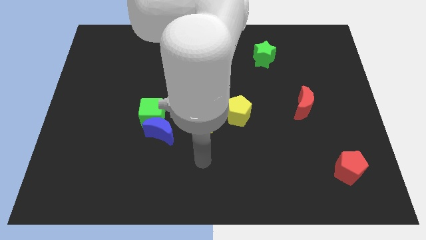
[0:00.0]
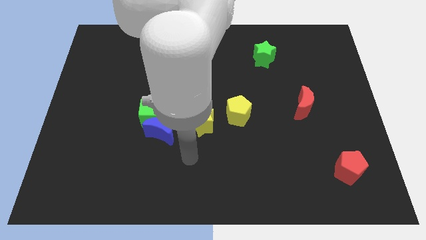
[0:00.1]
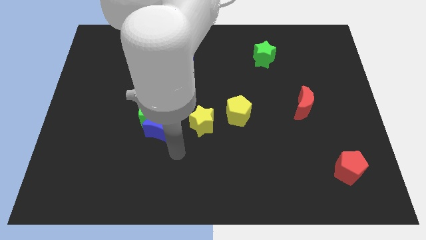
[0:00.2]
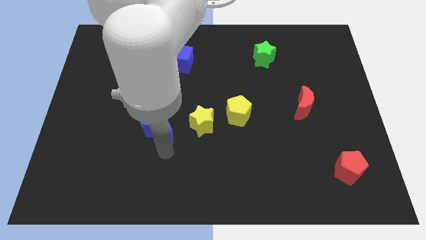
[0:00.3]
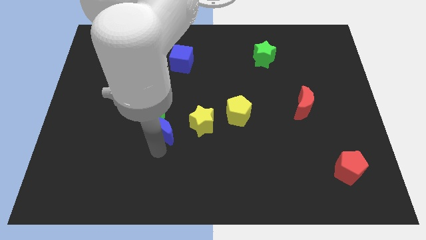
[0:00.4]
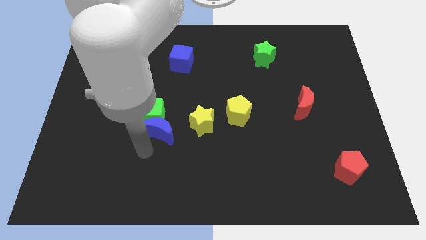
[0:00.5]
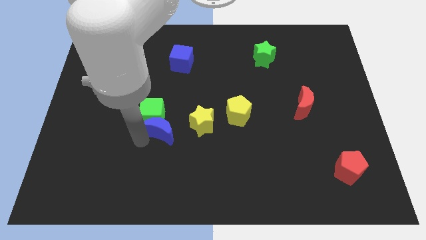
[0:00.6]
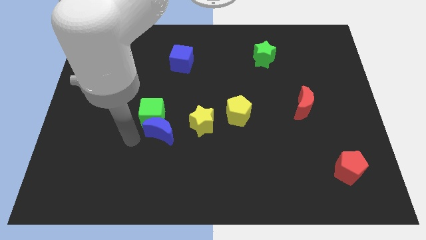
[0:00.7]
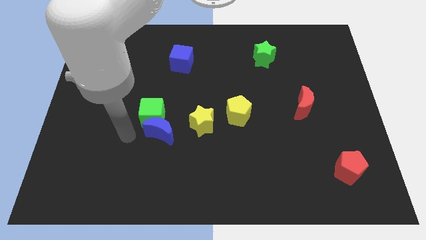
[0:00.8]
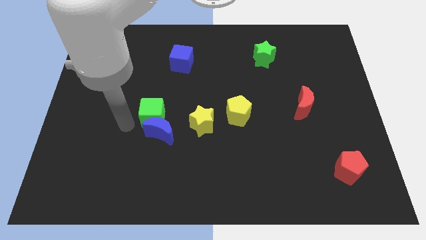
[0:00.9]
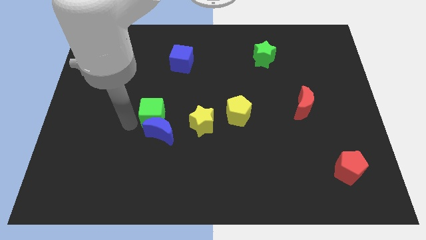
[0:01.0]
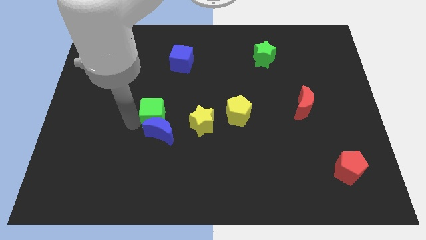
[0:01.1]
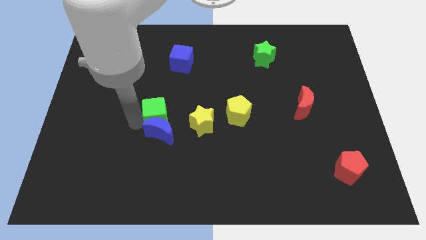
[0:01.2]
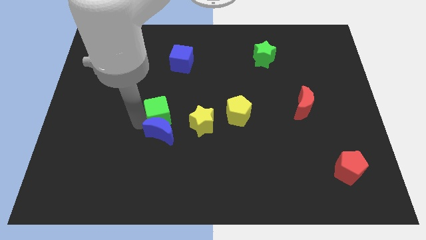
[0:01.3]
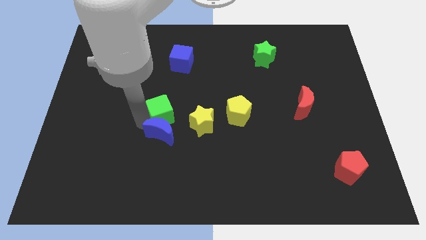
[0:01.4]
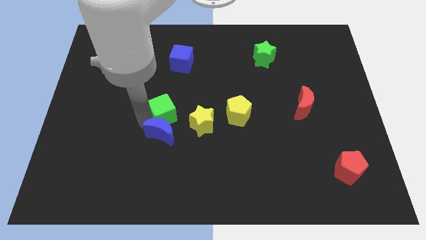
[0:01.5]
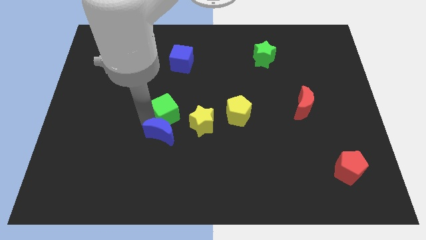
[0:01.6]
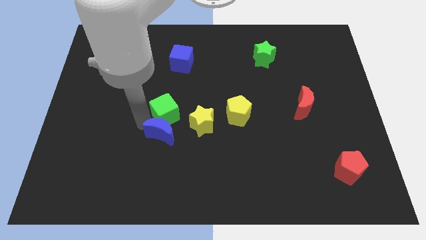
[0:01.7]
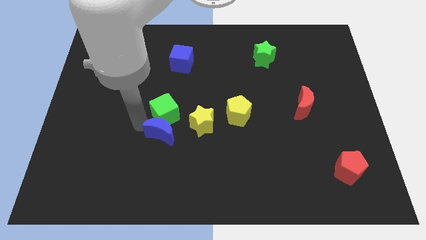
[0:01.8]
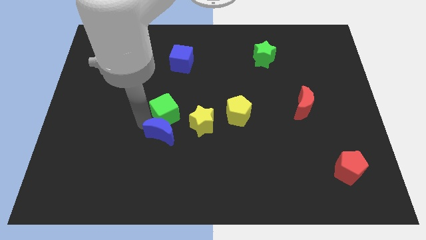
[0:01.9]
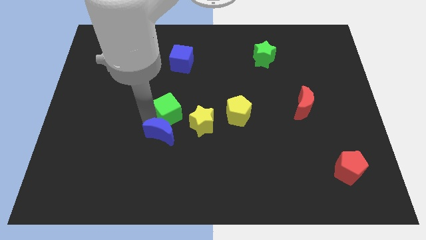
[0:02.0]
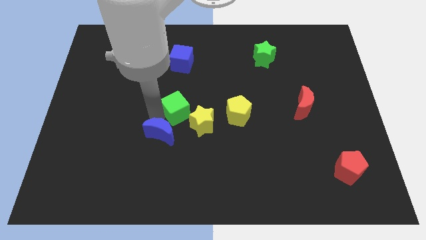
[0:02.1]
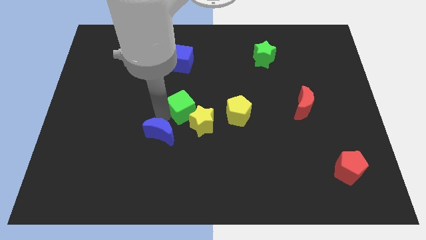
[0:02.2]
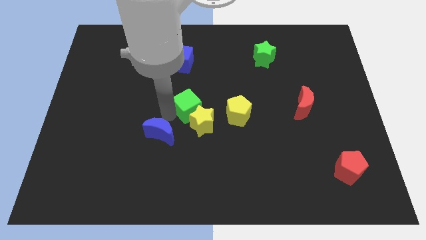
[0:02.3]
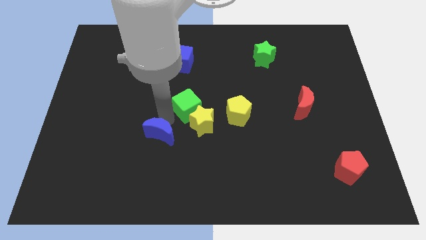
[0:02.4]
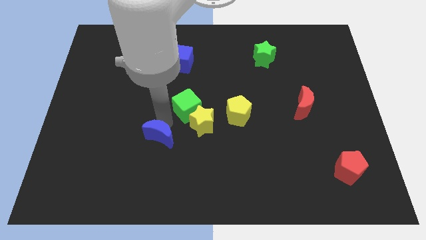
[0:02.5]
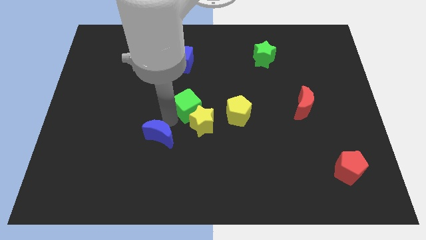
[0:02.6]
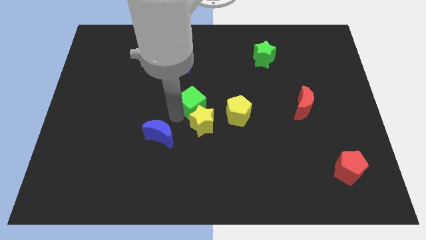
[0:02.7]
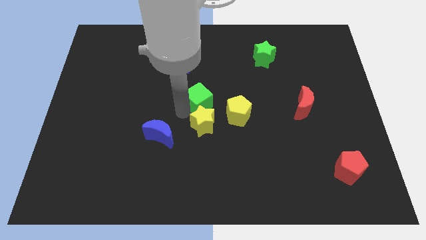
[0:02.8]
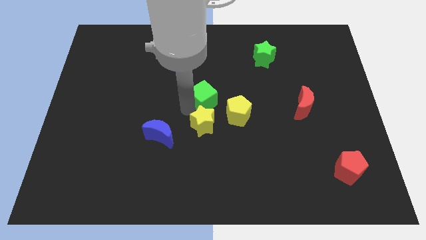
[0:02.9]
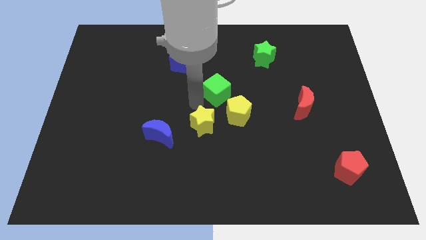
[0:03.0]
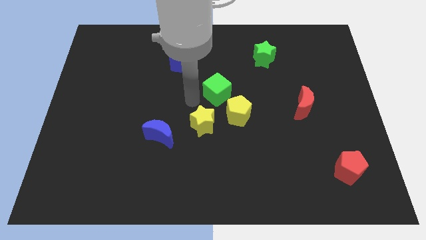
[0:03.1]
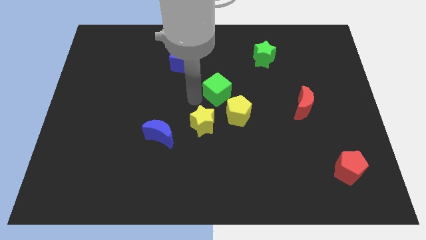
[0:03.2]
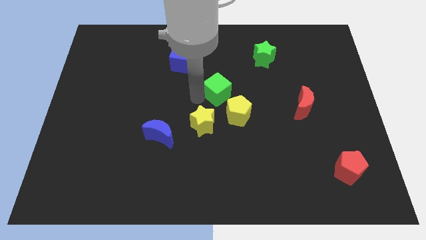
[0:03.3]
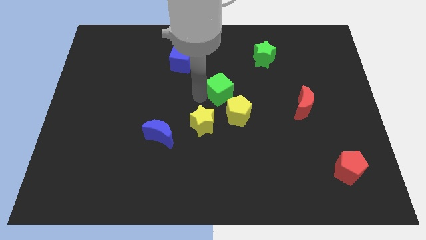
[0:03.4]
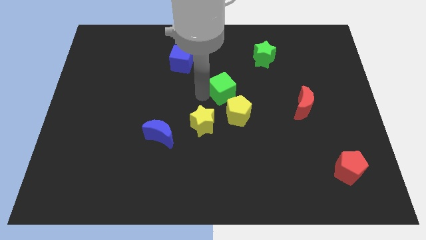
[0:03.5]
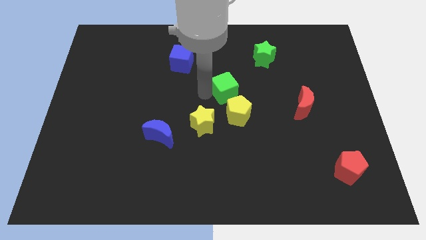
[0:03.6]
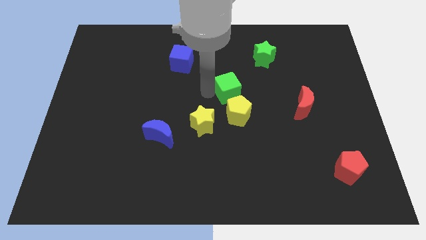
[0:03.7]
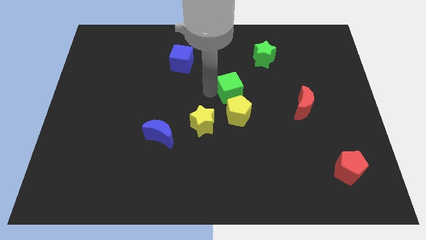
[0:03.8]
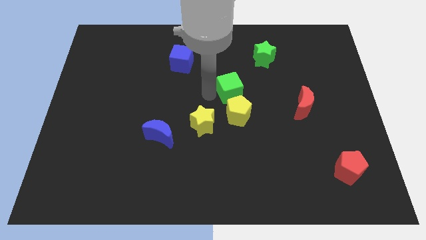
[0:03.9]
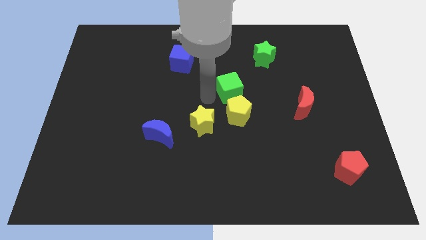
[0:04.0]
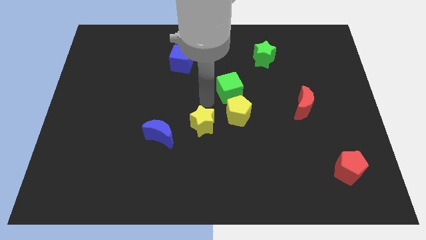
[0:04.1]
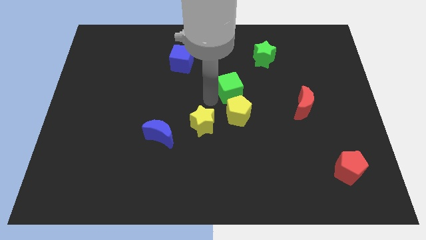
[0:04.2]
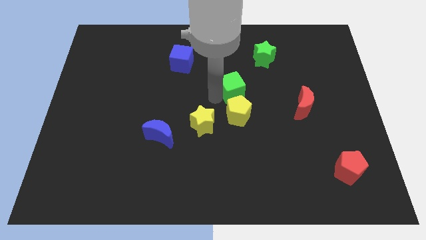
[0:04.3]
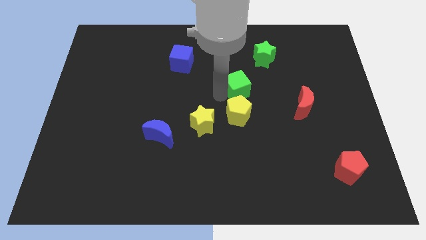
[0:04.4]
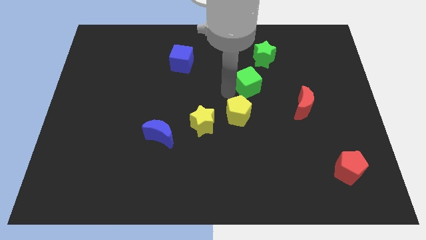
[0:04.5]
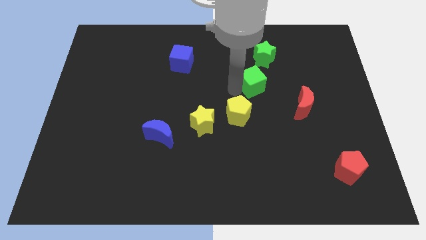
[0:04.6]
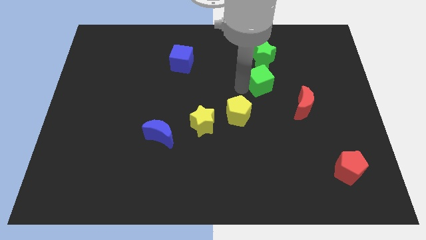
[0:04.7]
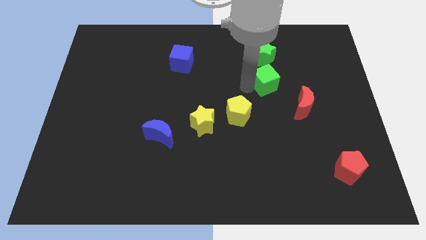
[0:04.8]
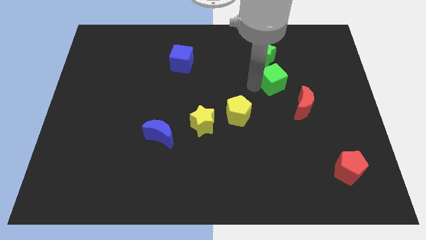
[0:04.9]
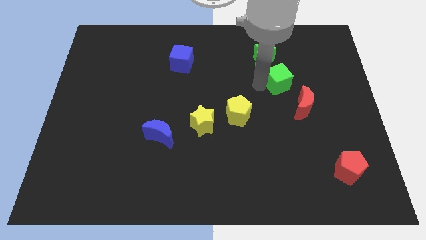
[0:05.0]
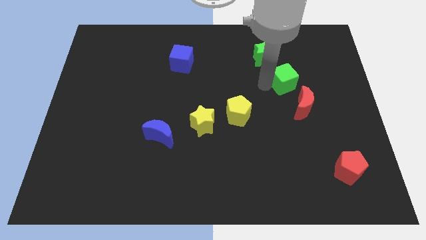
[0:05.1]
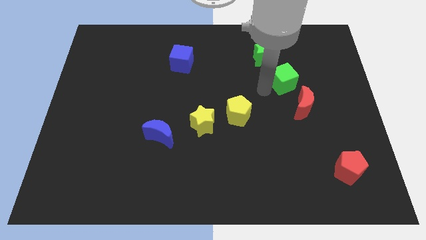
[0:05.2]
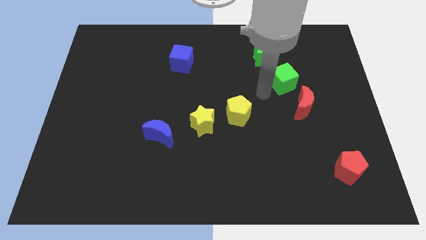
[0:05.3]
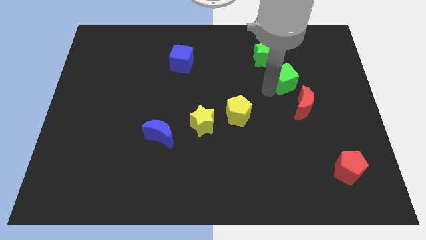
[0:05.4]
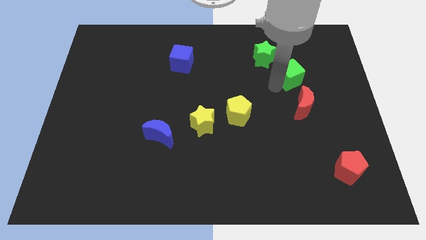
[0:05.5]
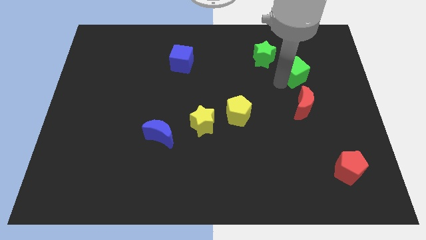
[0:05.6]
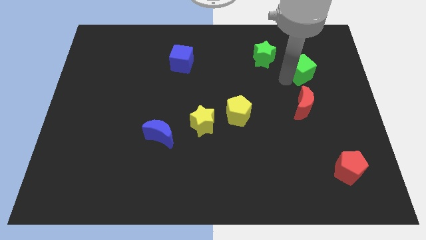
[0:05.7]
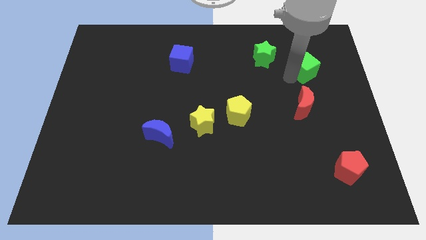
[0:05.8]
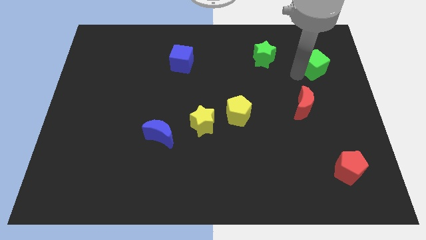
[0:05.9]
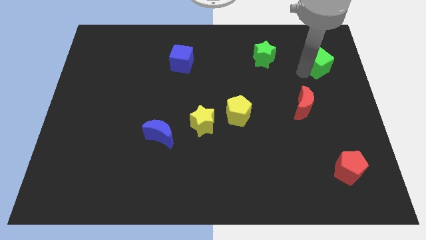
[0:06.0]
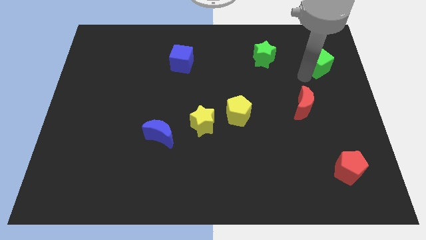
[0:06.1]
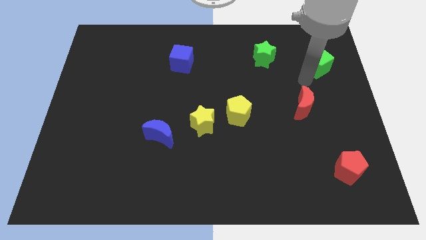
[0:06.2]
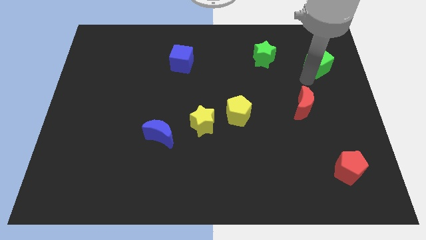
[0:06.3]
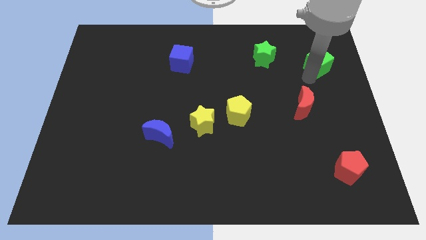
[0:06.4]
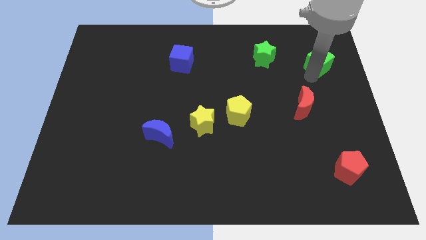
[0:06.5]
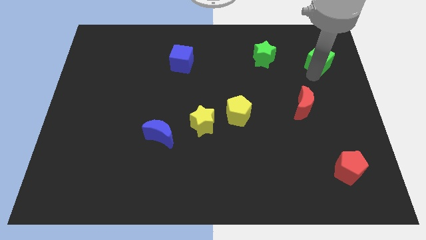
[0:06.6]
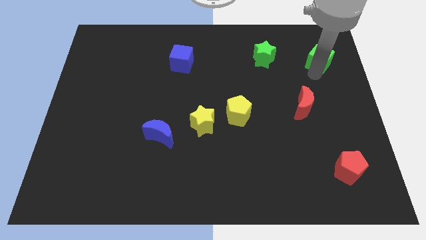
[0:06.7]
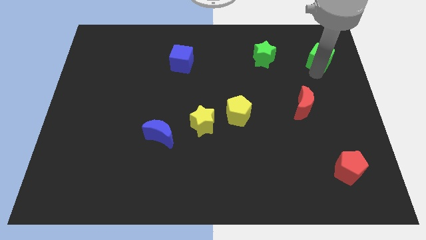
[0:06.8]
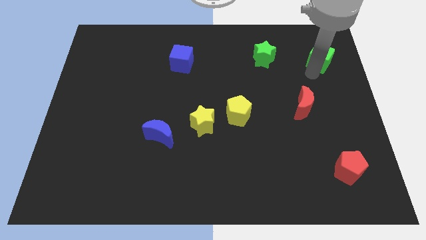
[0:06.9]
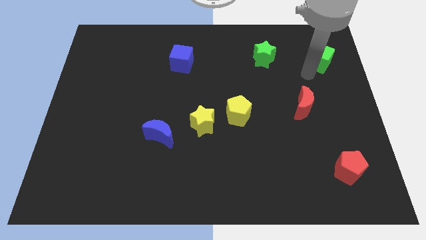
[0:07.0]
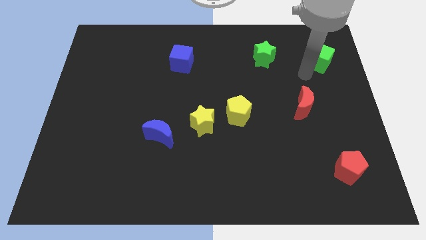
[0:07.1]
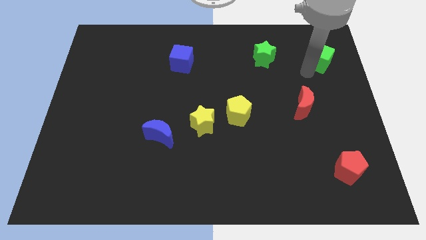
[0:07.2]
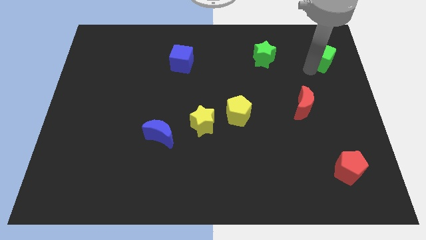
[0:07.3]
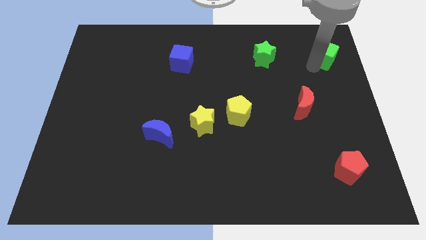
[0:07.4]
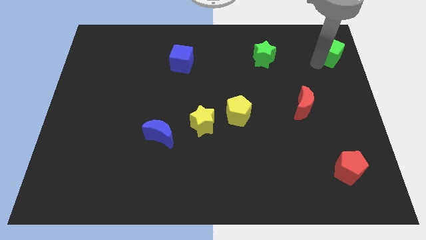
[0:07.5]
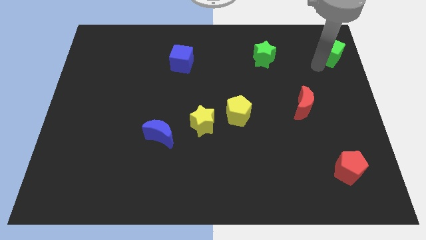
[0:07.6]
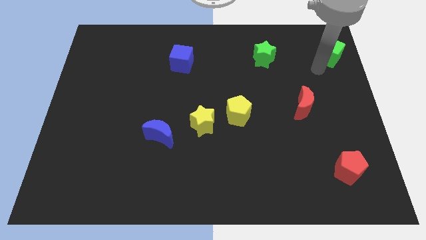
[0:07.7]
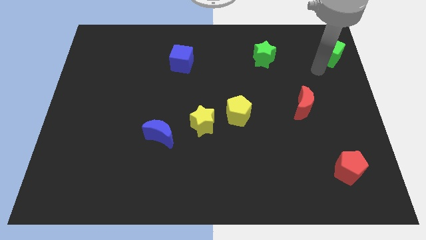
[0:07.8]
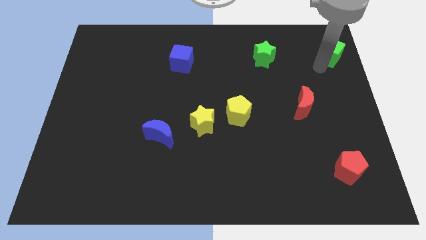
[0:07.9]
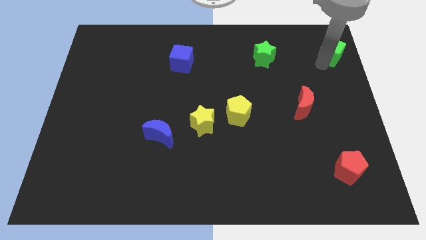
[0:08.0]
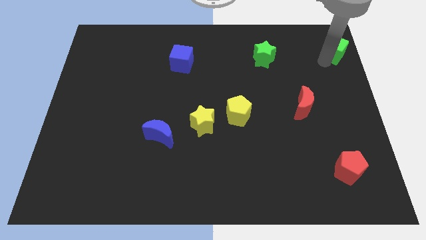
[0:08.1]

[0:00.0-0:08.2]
put the green cube to the top right

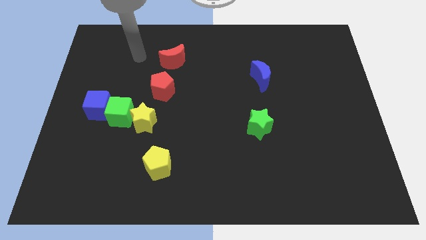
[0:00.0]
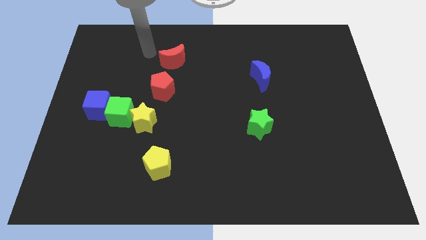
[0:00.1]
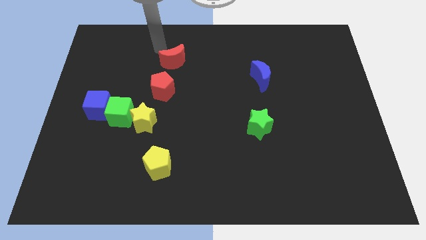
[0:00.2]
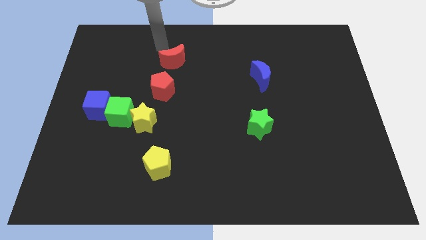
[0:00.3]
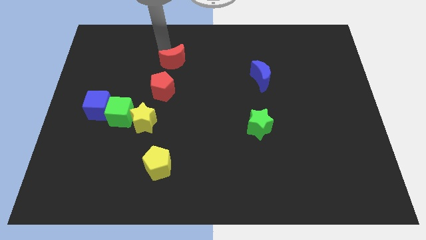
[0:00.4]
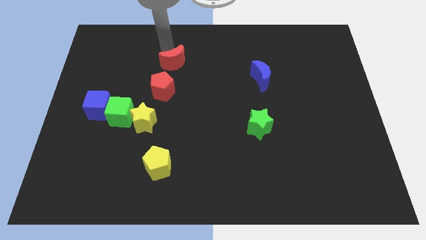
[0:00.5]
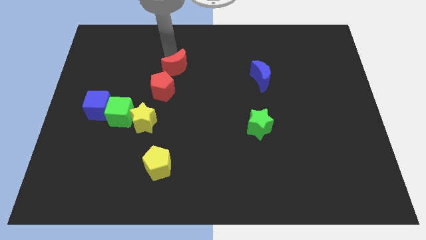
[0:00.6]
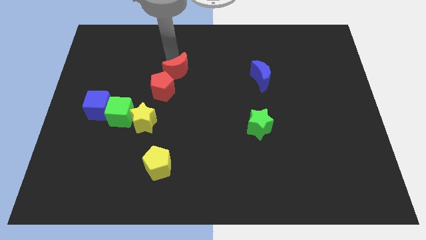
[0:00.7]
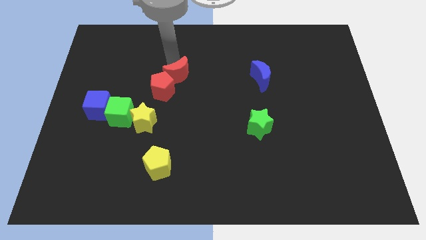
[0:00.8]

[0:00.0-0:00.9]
push the red moon to the center of the board
